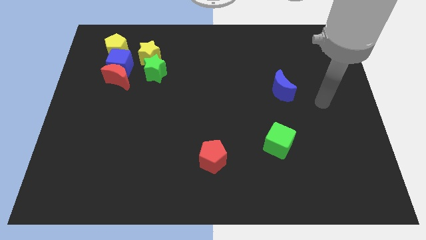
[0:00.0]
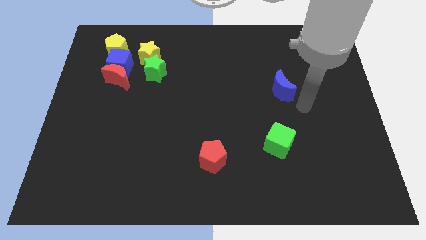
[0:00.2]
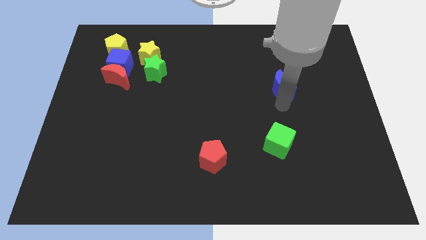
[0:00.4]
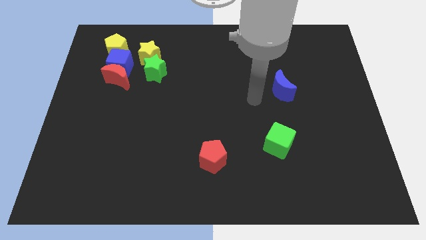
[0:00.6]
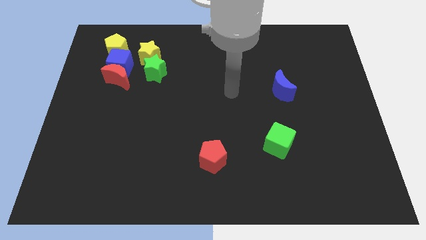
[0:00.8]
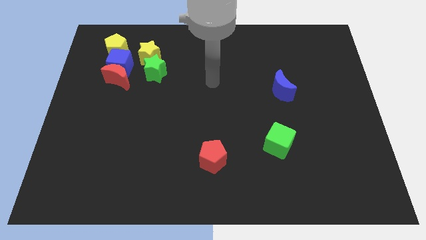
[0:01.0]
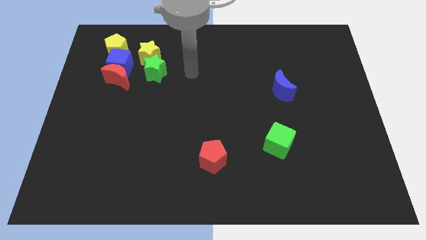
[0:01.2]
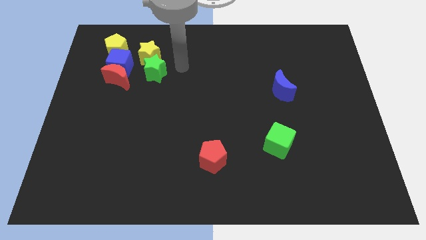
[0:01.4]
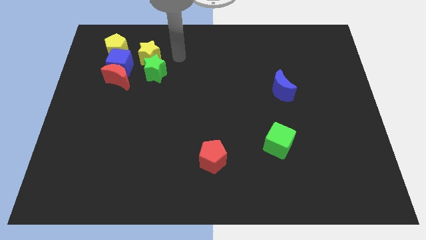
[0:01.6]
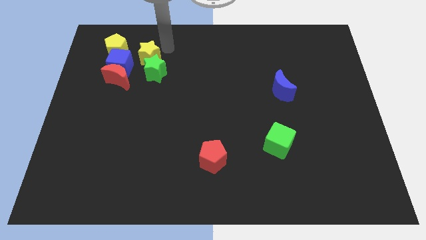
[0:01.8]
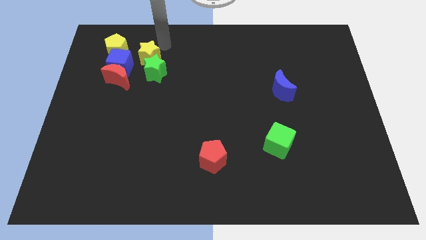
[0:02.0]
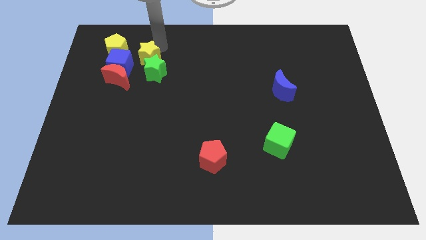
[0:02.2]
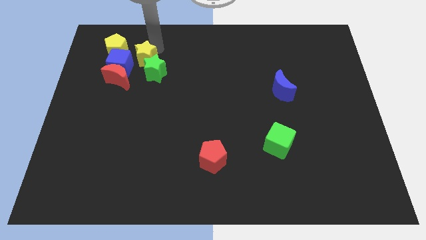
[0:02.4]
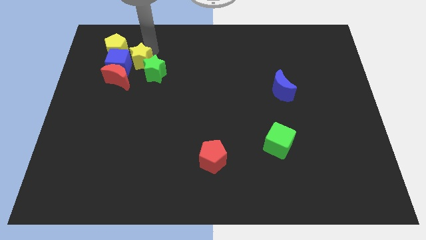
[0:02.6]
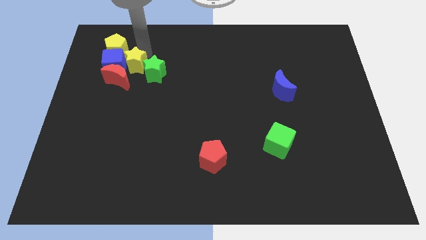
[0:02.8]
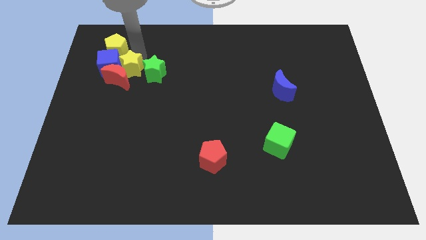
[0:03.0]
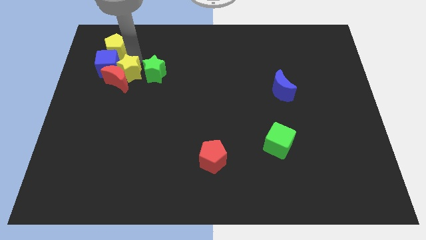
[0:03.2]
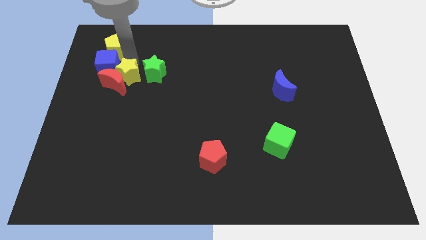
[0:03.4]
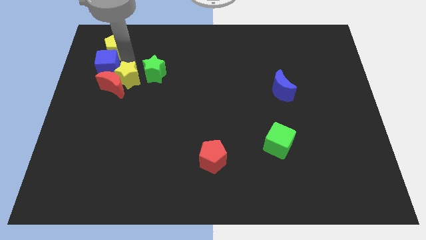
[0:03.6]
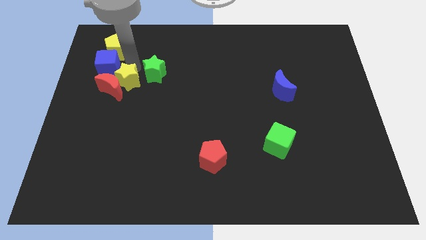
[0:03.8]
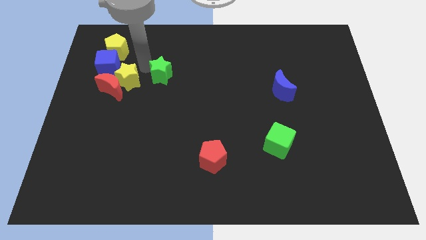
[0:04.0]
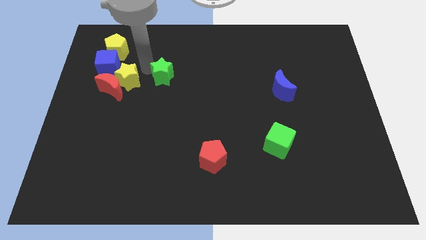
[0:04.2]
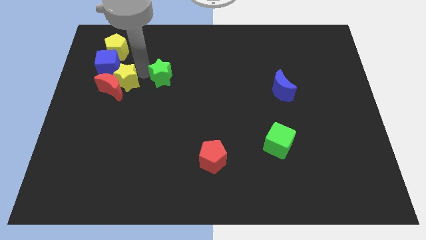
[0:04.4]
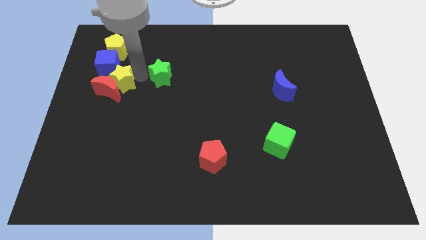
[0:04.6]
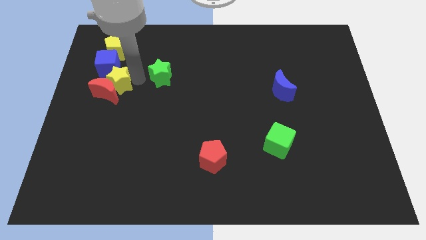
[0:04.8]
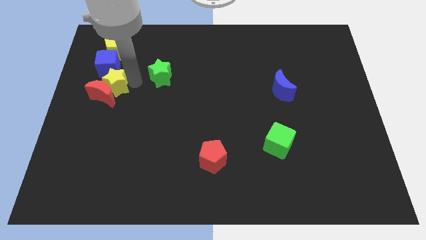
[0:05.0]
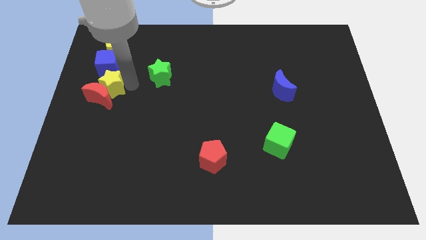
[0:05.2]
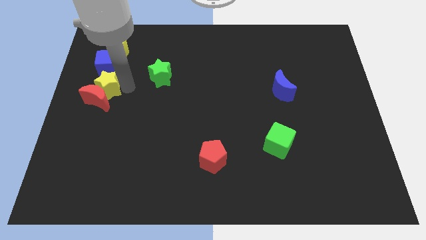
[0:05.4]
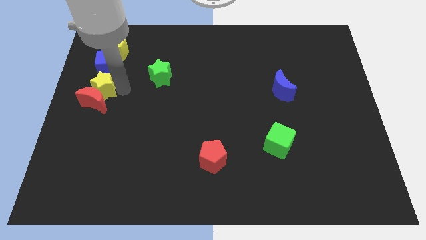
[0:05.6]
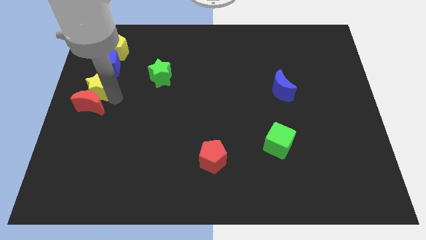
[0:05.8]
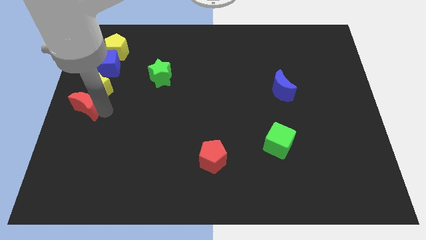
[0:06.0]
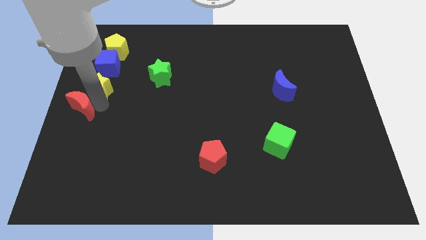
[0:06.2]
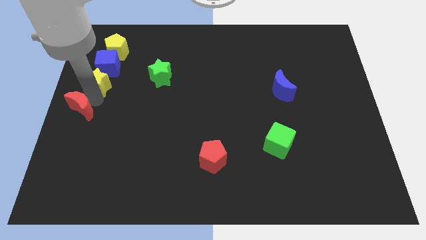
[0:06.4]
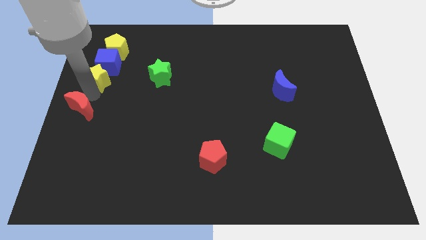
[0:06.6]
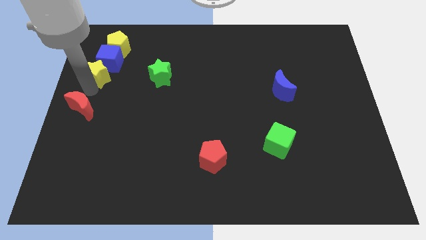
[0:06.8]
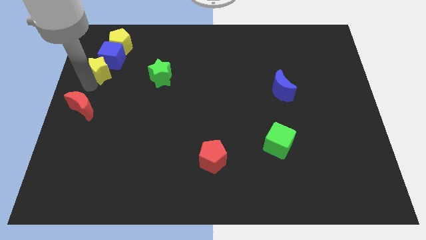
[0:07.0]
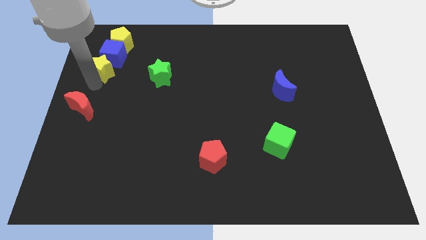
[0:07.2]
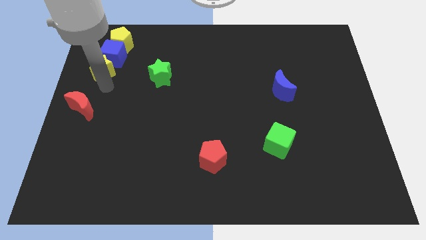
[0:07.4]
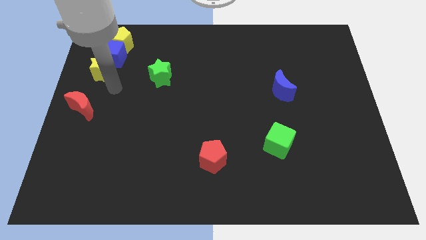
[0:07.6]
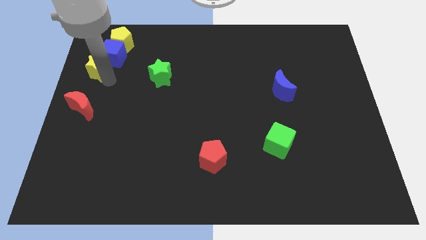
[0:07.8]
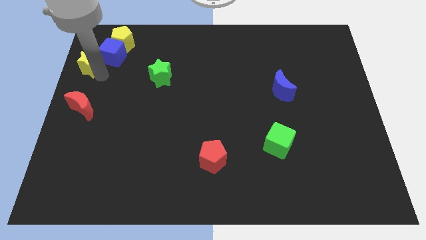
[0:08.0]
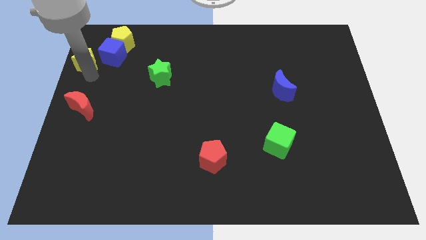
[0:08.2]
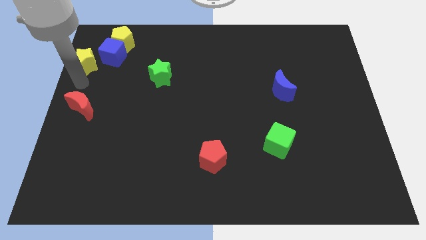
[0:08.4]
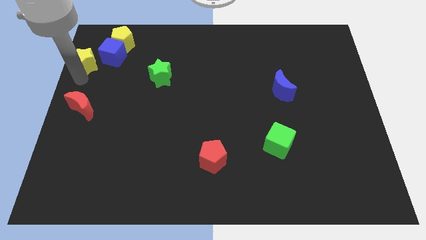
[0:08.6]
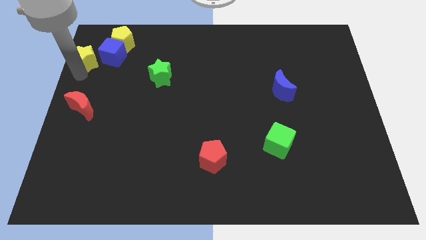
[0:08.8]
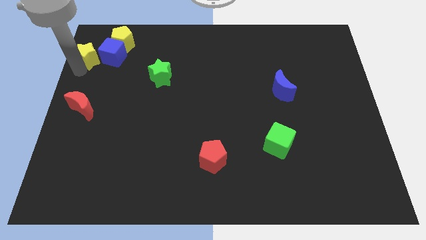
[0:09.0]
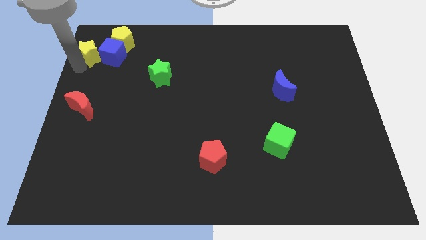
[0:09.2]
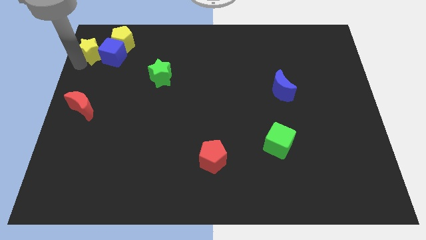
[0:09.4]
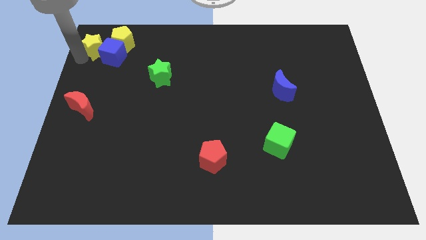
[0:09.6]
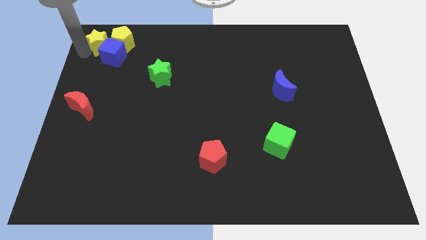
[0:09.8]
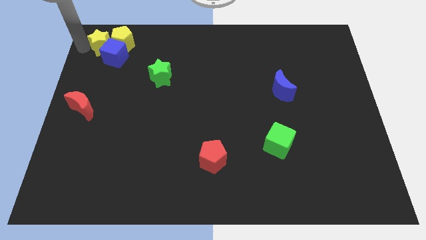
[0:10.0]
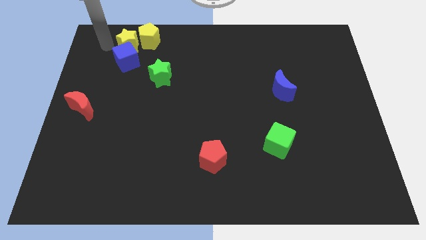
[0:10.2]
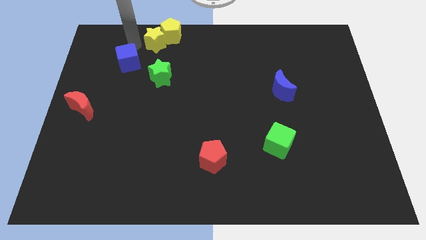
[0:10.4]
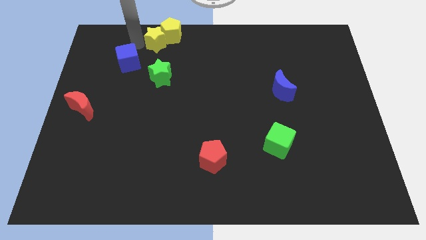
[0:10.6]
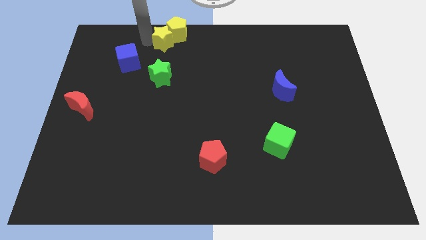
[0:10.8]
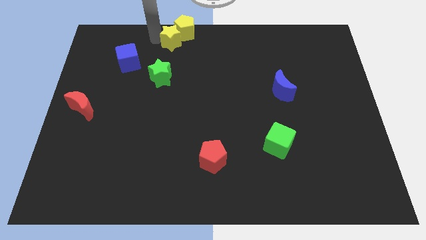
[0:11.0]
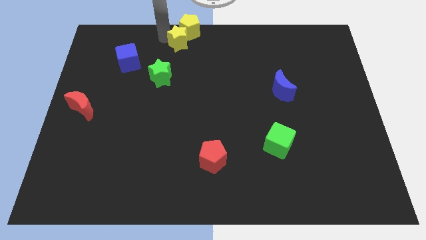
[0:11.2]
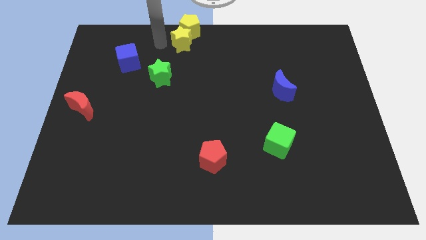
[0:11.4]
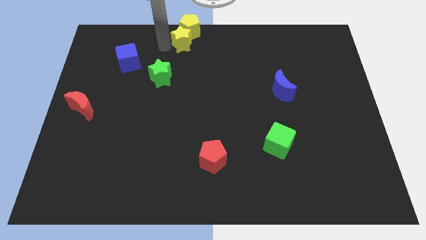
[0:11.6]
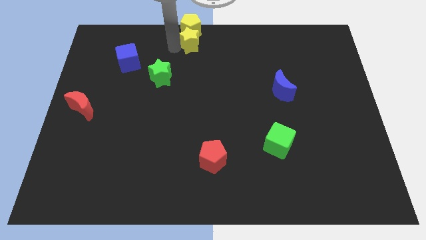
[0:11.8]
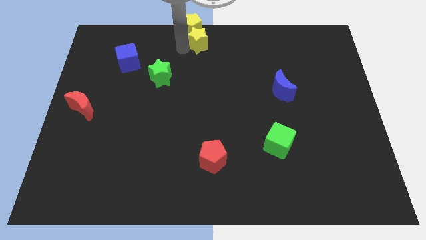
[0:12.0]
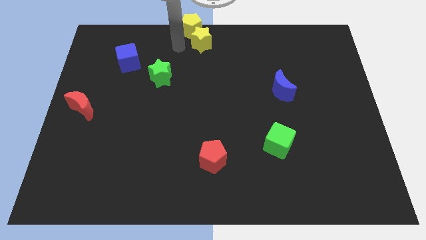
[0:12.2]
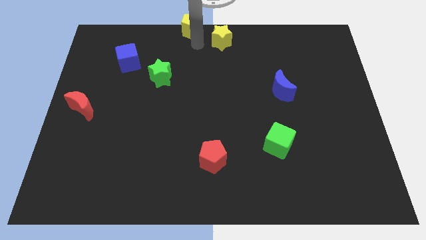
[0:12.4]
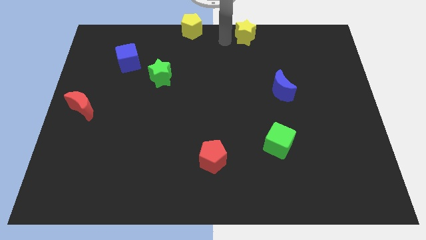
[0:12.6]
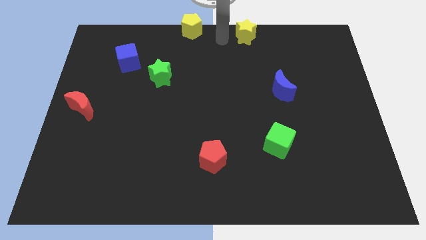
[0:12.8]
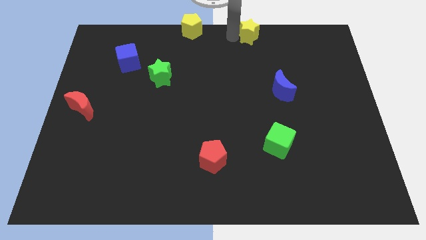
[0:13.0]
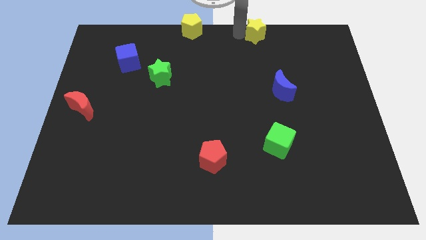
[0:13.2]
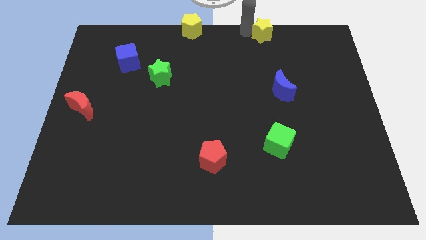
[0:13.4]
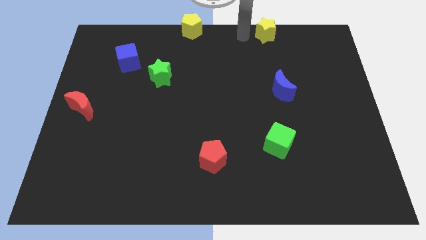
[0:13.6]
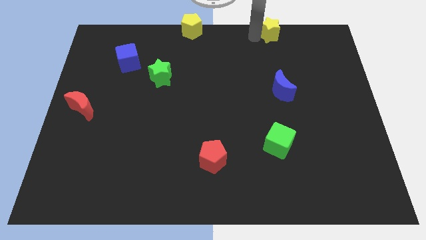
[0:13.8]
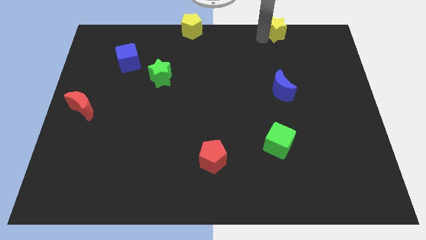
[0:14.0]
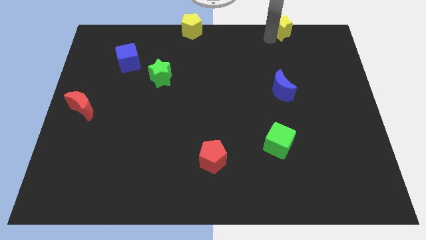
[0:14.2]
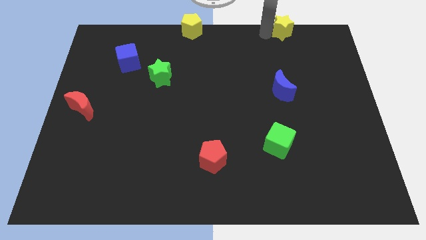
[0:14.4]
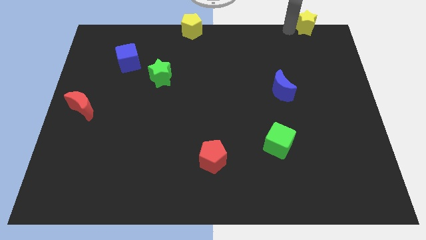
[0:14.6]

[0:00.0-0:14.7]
put the yellow star to the top right of the board
